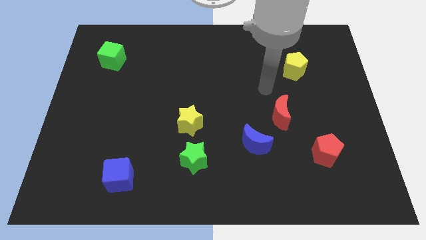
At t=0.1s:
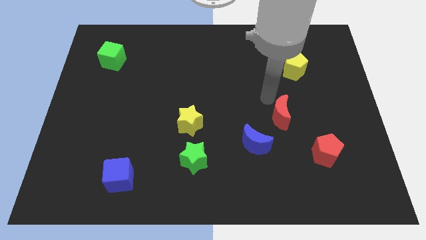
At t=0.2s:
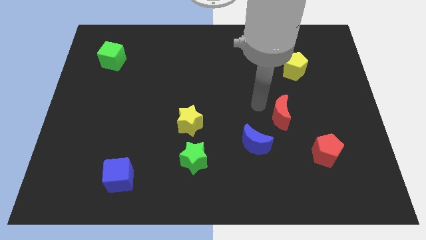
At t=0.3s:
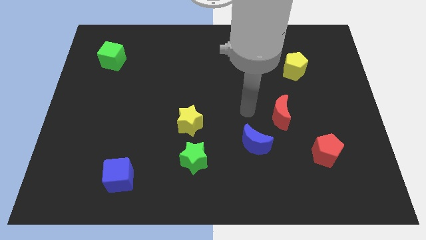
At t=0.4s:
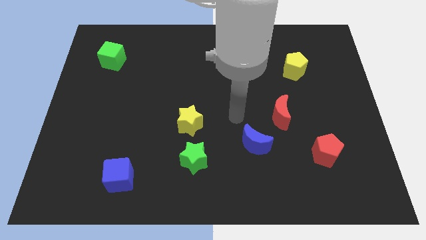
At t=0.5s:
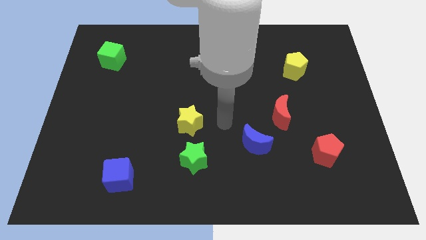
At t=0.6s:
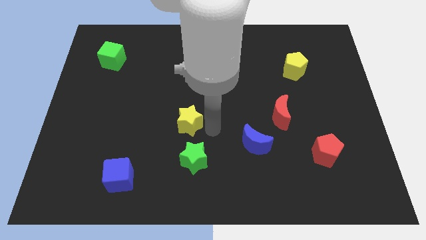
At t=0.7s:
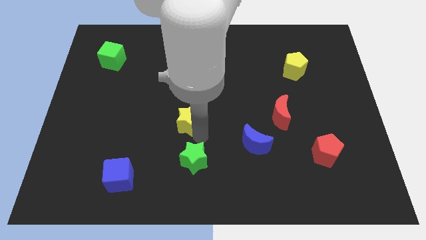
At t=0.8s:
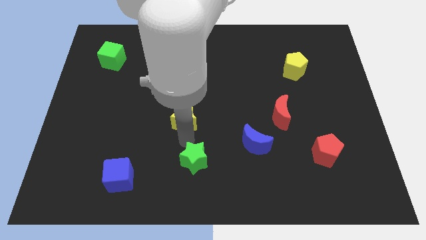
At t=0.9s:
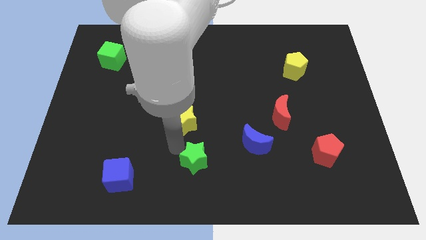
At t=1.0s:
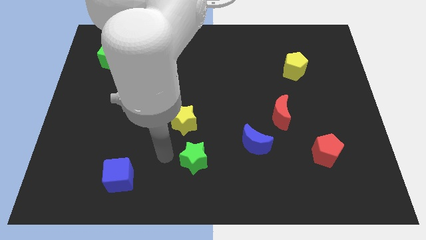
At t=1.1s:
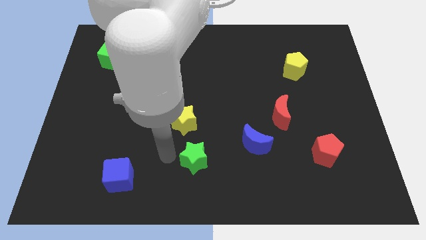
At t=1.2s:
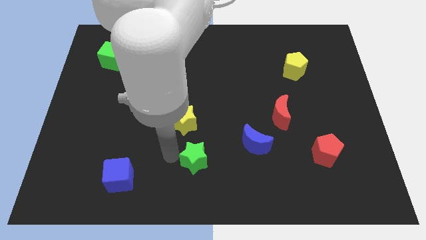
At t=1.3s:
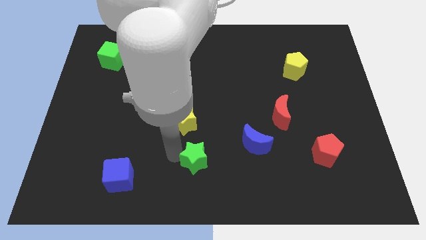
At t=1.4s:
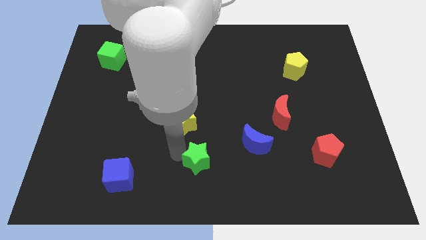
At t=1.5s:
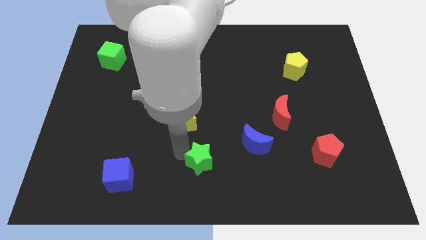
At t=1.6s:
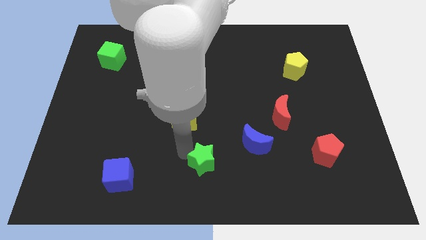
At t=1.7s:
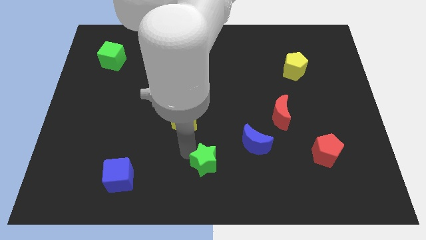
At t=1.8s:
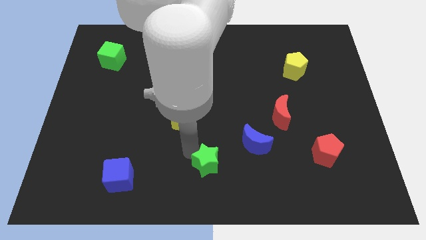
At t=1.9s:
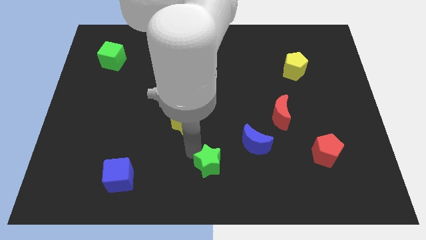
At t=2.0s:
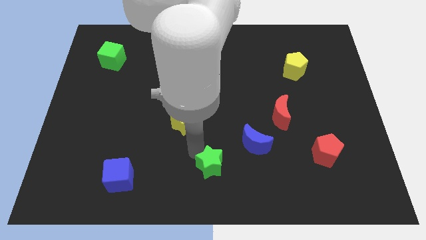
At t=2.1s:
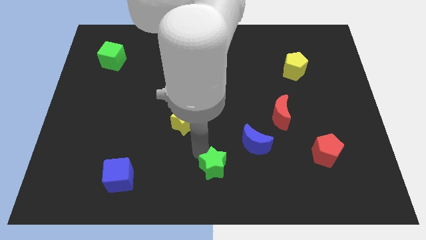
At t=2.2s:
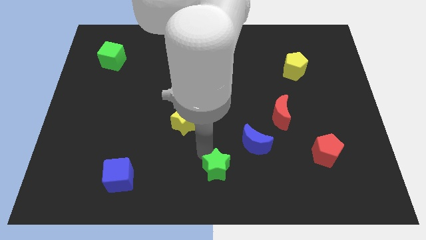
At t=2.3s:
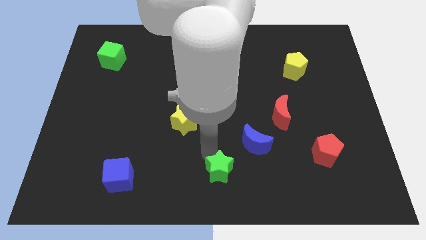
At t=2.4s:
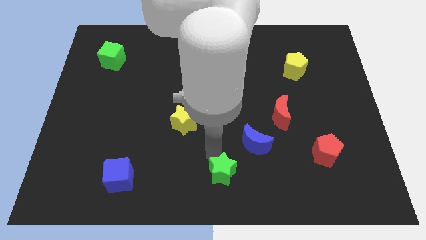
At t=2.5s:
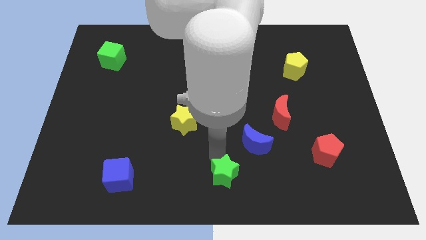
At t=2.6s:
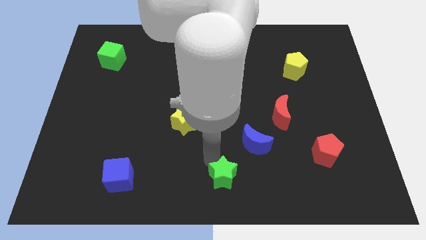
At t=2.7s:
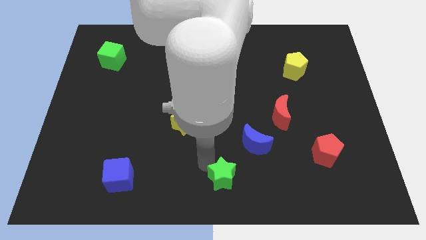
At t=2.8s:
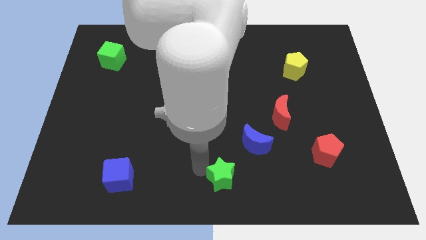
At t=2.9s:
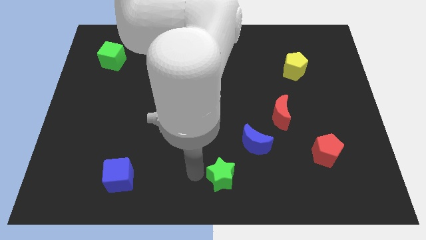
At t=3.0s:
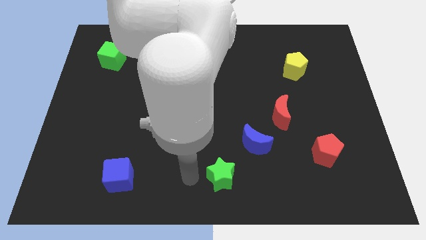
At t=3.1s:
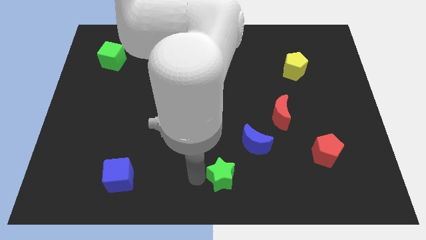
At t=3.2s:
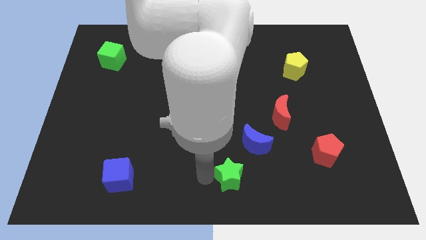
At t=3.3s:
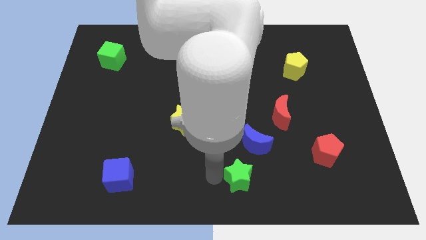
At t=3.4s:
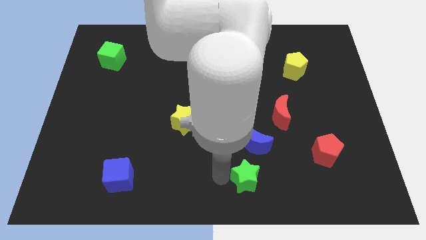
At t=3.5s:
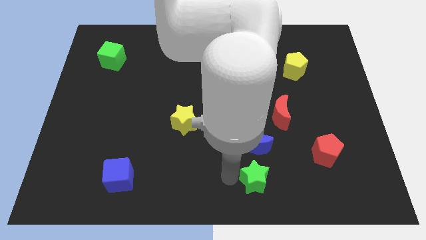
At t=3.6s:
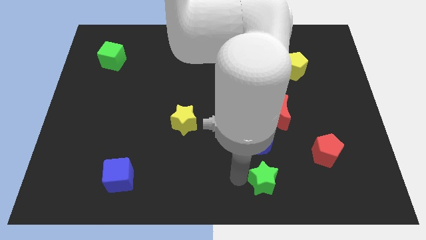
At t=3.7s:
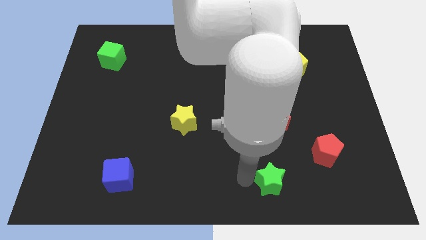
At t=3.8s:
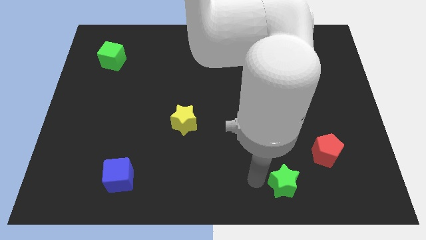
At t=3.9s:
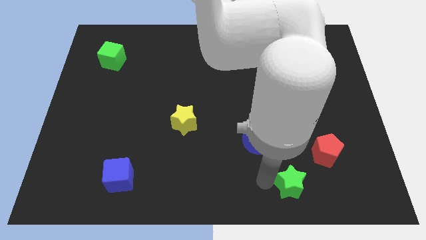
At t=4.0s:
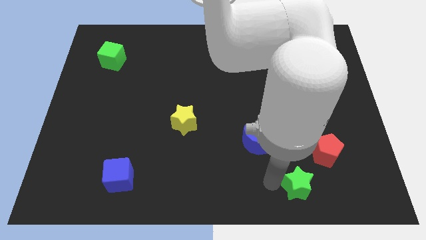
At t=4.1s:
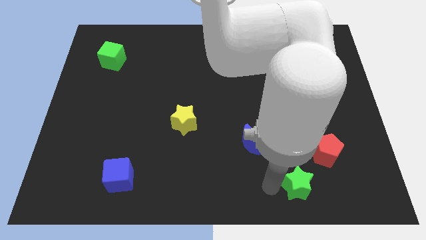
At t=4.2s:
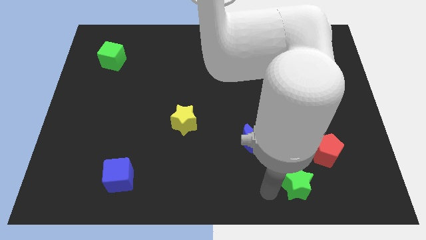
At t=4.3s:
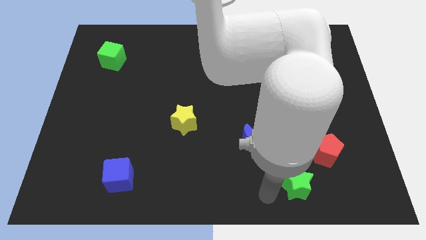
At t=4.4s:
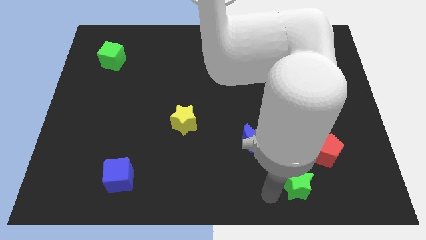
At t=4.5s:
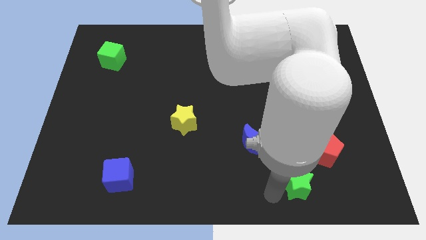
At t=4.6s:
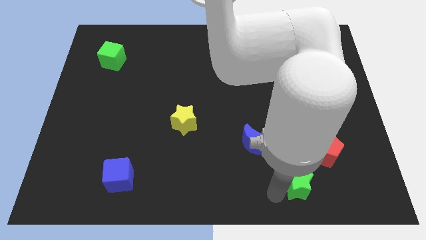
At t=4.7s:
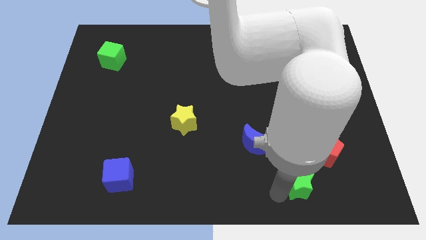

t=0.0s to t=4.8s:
move the green star to the right

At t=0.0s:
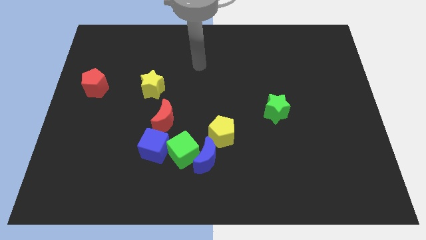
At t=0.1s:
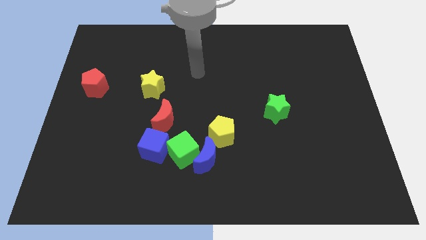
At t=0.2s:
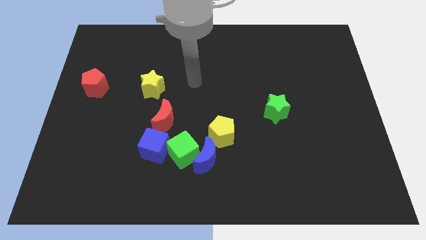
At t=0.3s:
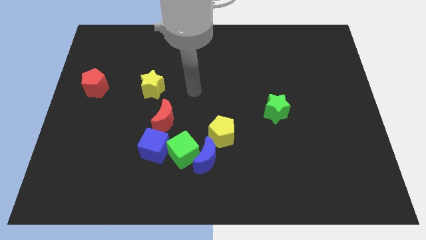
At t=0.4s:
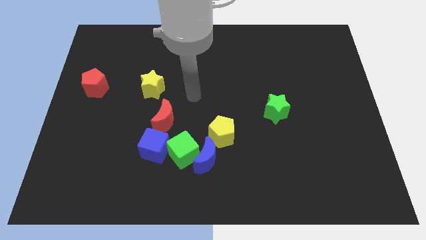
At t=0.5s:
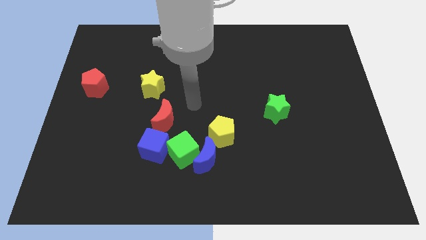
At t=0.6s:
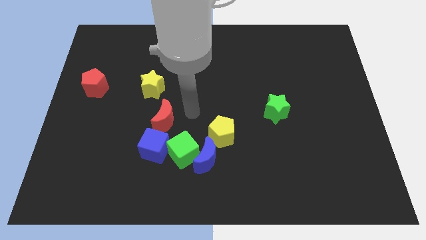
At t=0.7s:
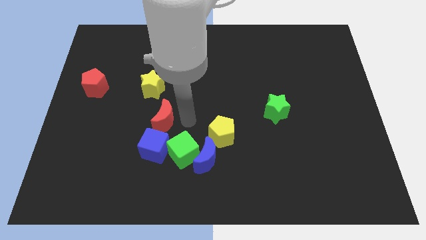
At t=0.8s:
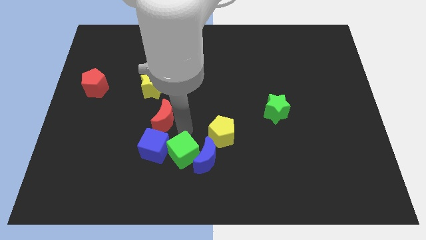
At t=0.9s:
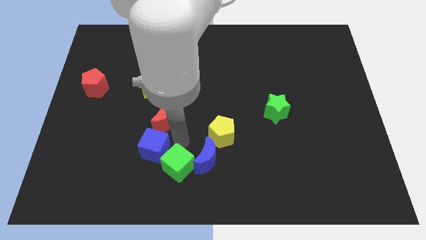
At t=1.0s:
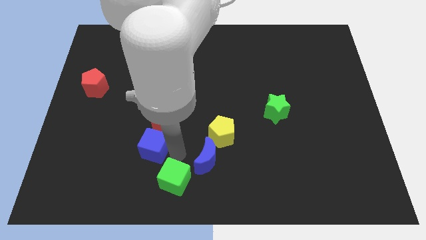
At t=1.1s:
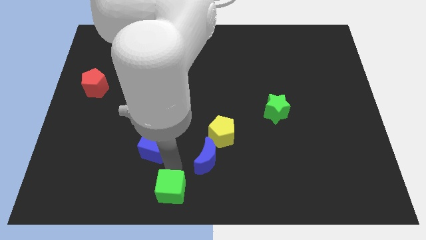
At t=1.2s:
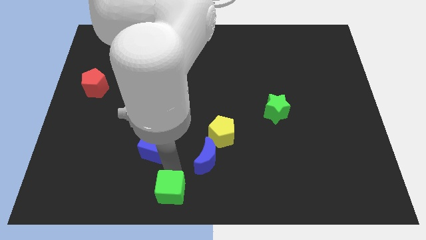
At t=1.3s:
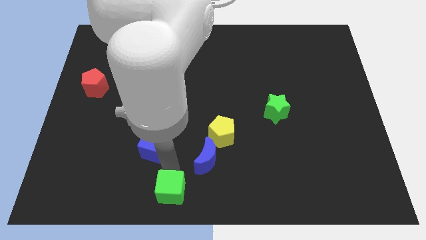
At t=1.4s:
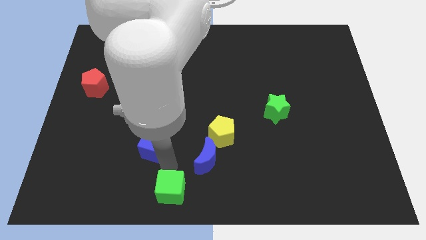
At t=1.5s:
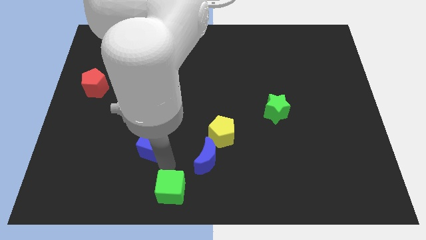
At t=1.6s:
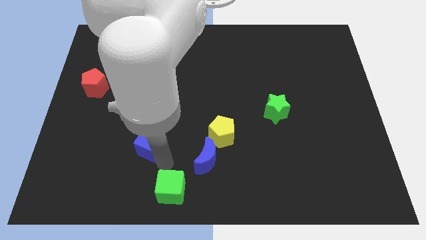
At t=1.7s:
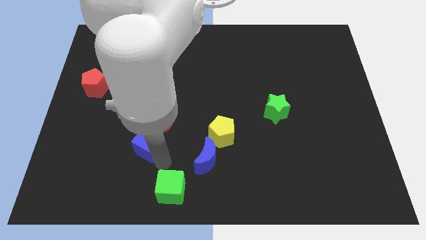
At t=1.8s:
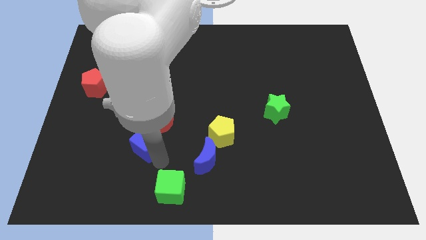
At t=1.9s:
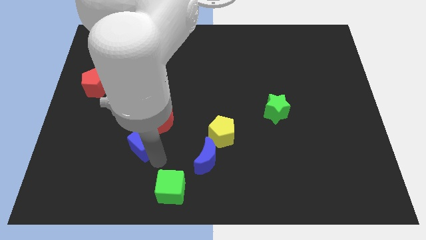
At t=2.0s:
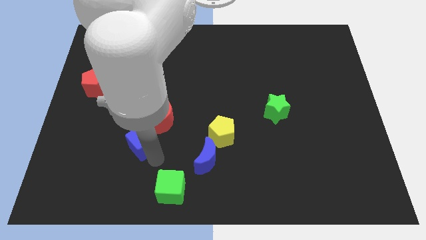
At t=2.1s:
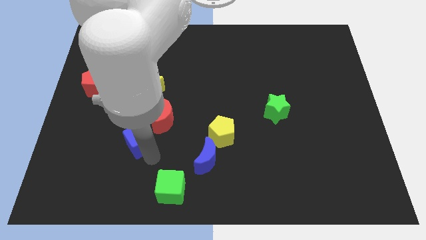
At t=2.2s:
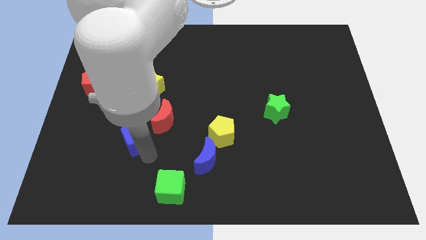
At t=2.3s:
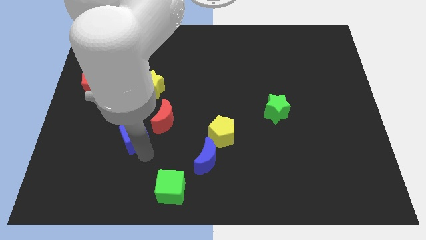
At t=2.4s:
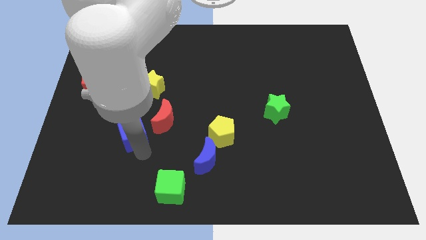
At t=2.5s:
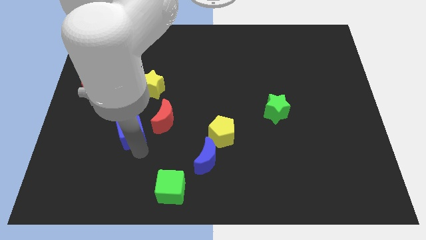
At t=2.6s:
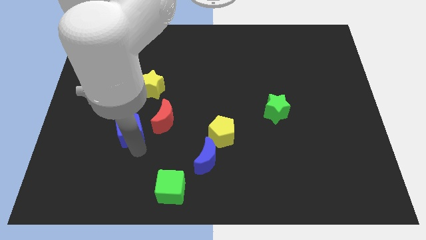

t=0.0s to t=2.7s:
push the blue cube upwards and to the left diagonally somewhat
